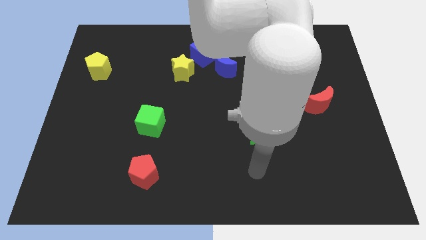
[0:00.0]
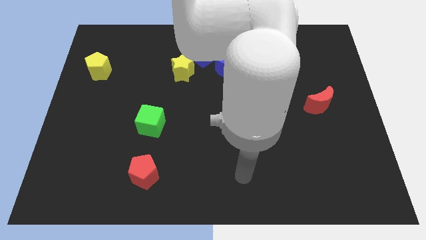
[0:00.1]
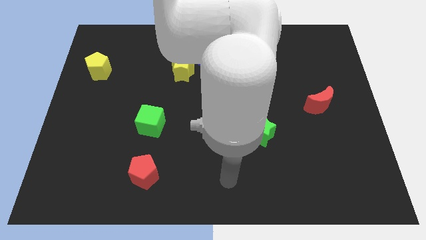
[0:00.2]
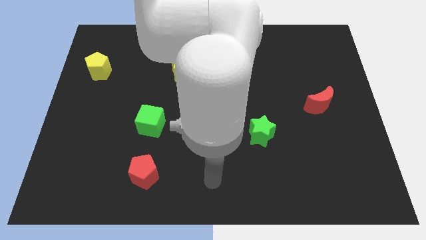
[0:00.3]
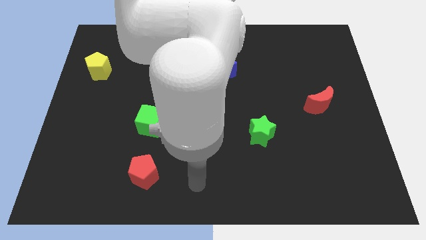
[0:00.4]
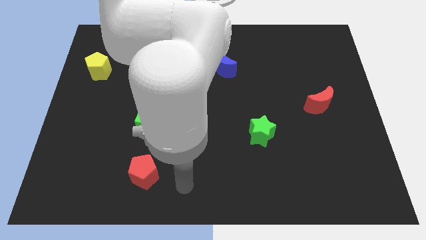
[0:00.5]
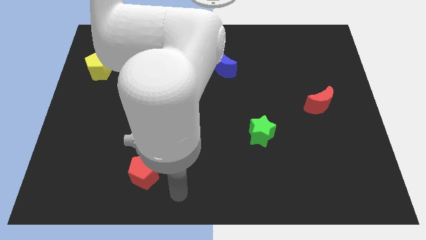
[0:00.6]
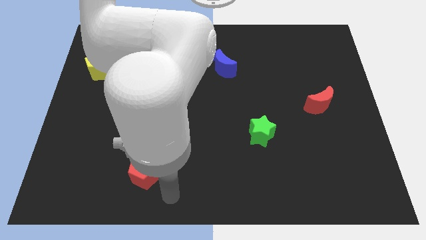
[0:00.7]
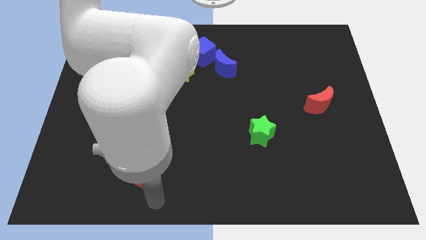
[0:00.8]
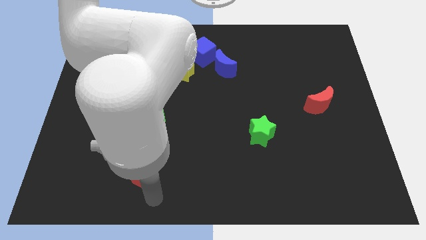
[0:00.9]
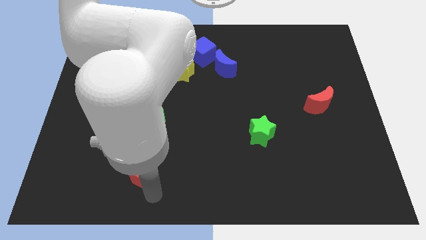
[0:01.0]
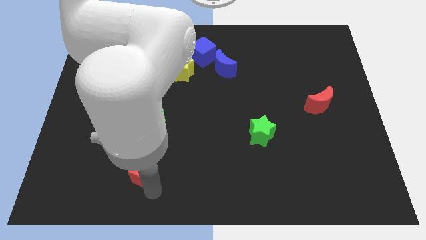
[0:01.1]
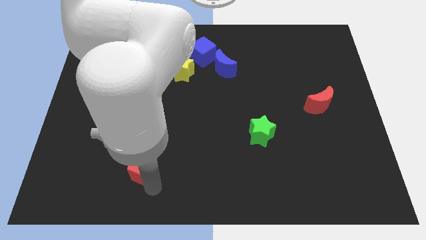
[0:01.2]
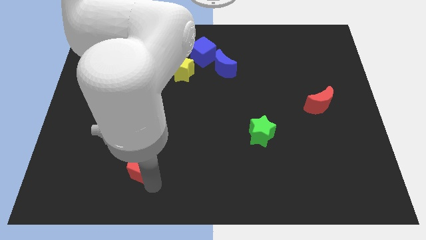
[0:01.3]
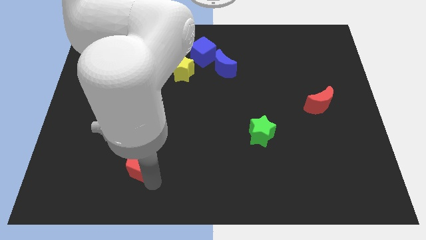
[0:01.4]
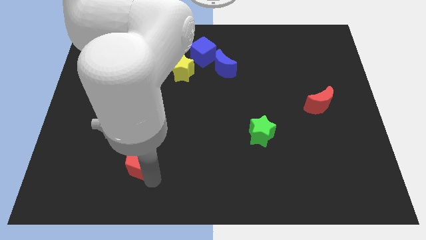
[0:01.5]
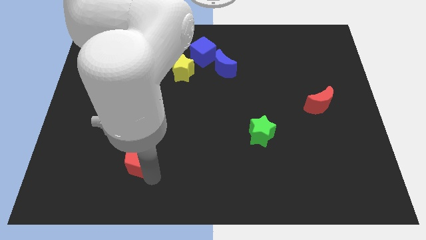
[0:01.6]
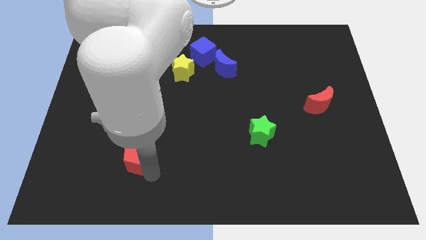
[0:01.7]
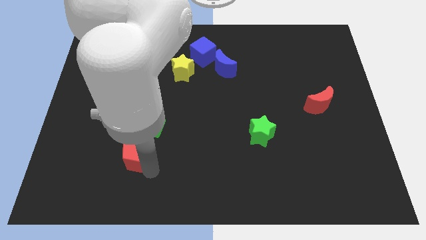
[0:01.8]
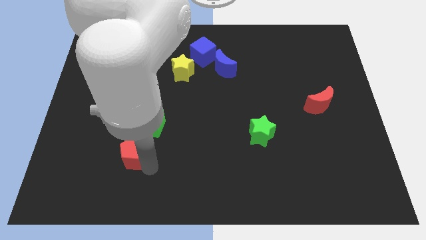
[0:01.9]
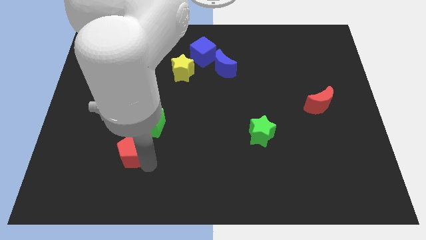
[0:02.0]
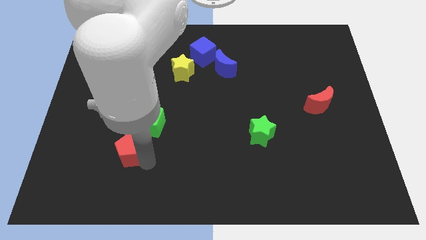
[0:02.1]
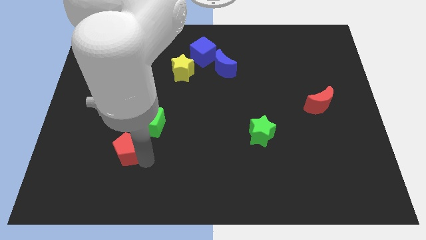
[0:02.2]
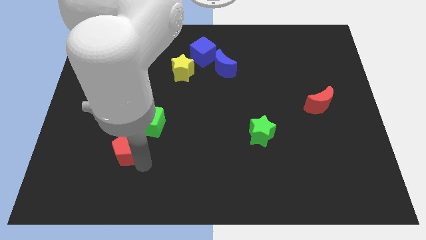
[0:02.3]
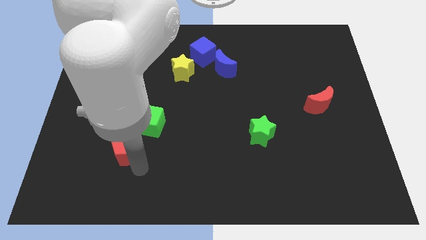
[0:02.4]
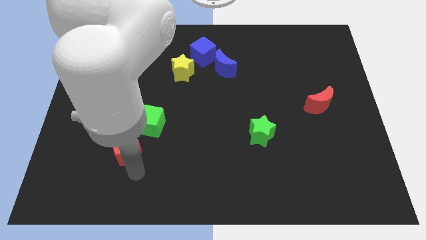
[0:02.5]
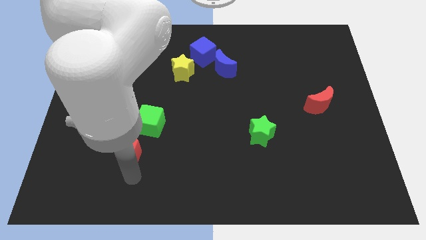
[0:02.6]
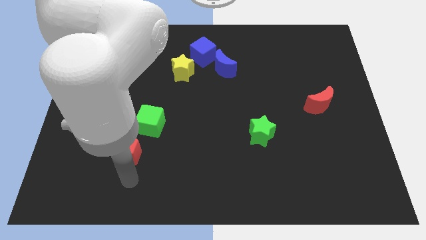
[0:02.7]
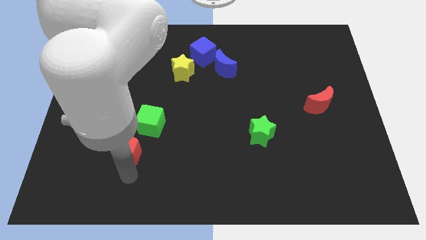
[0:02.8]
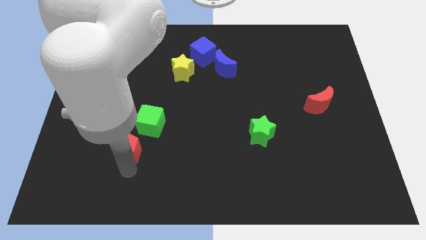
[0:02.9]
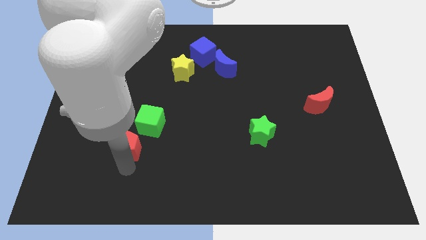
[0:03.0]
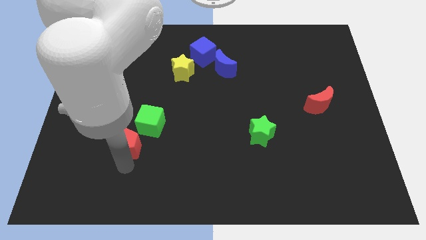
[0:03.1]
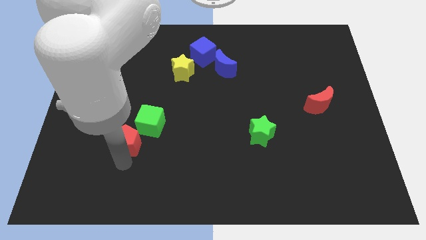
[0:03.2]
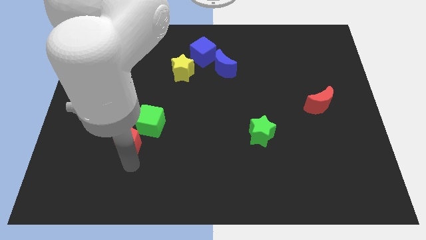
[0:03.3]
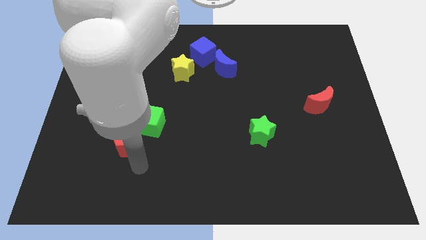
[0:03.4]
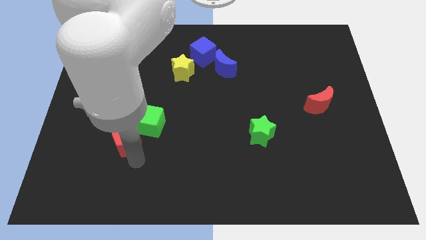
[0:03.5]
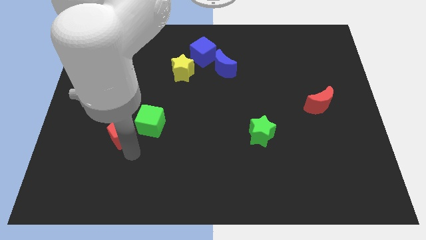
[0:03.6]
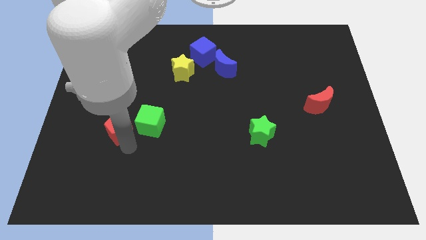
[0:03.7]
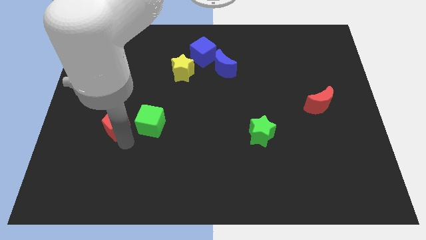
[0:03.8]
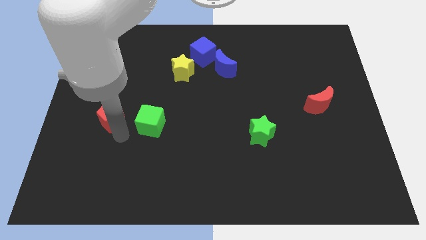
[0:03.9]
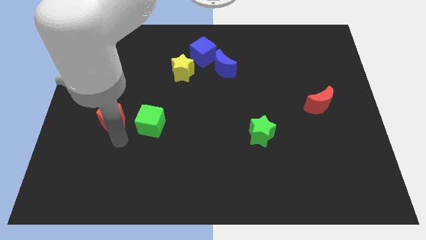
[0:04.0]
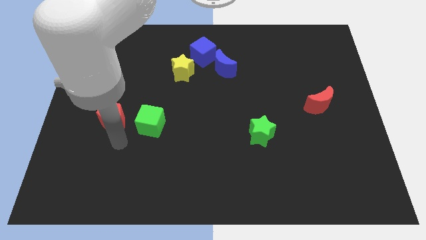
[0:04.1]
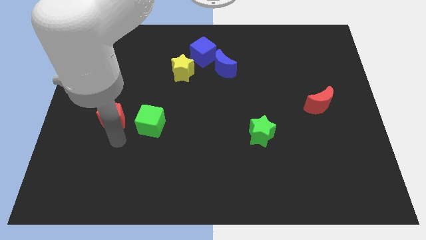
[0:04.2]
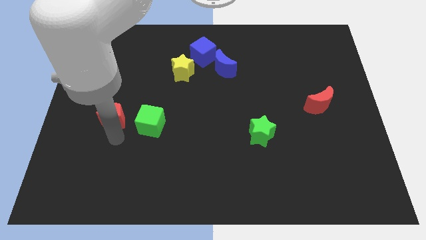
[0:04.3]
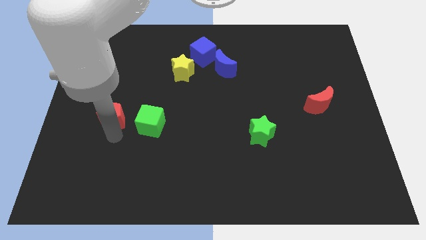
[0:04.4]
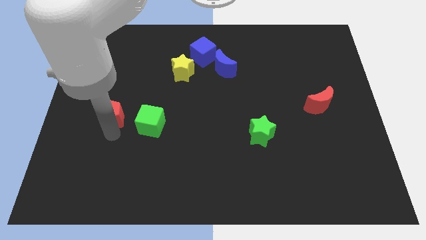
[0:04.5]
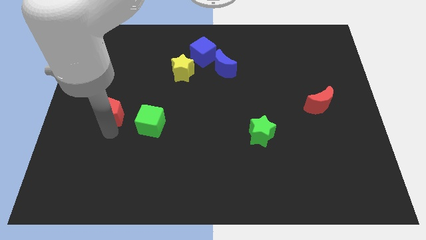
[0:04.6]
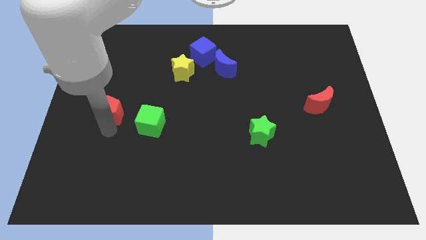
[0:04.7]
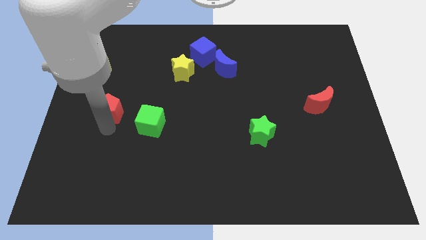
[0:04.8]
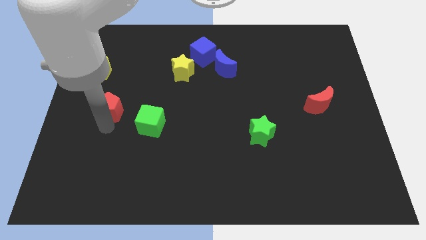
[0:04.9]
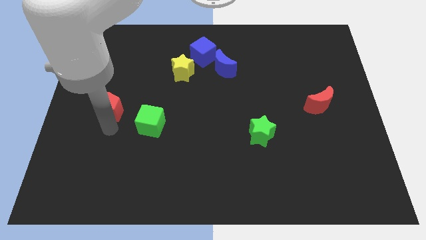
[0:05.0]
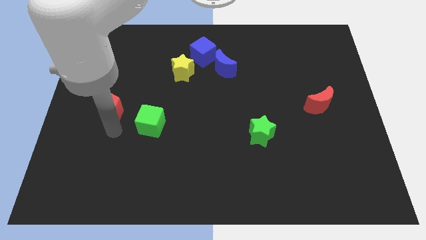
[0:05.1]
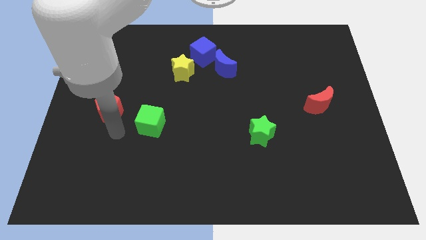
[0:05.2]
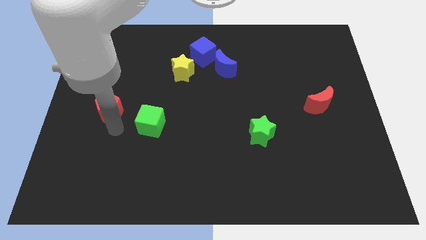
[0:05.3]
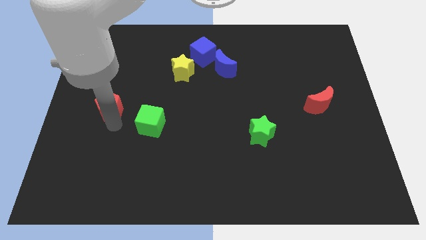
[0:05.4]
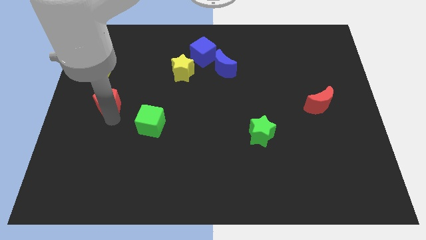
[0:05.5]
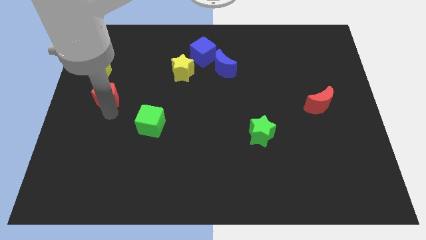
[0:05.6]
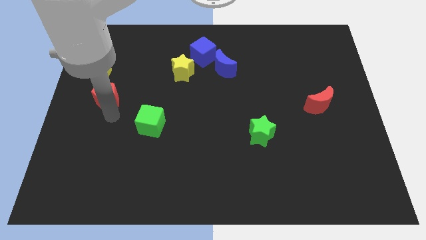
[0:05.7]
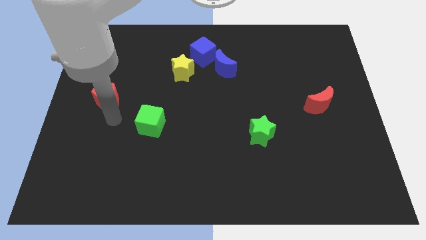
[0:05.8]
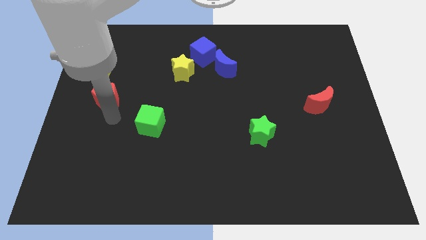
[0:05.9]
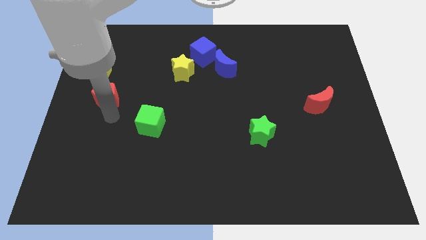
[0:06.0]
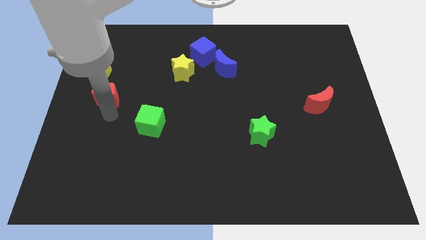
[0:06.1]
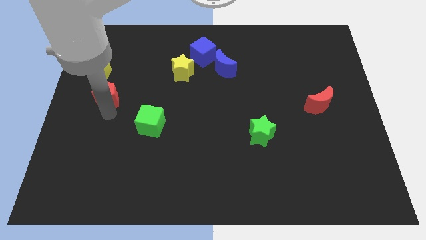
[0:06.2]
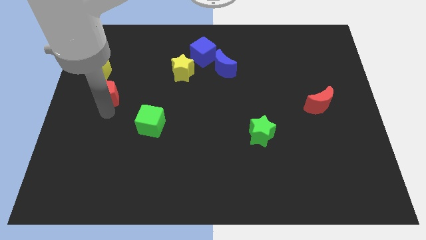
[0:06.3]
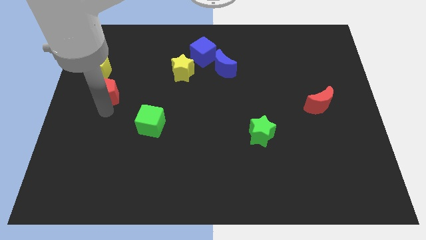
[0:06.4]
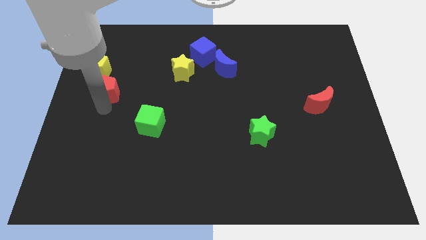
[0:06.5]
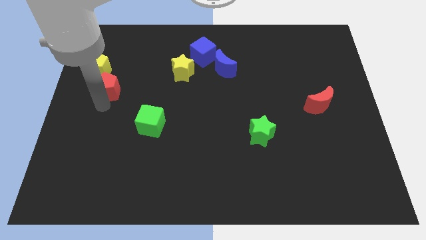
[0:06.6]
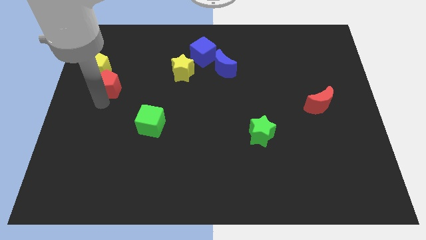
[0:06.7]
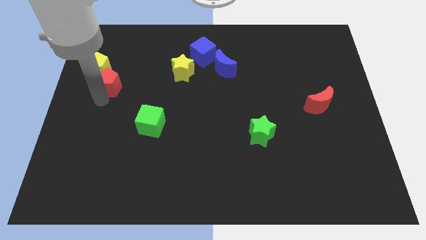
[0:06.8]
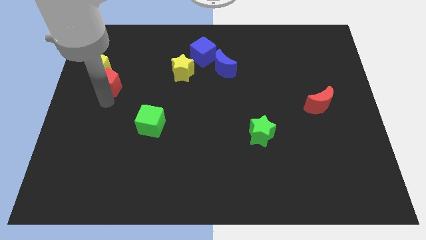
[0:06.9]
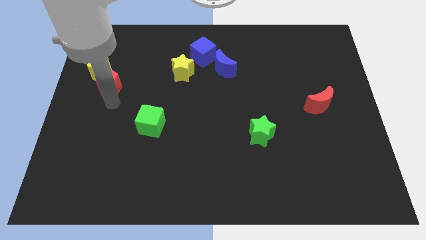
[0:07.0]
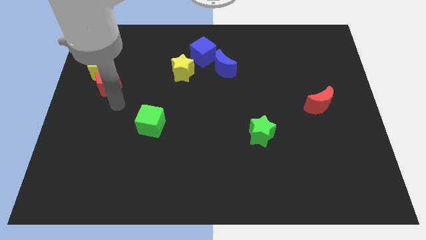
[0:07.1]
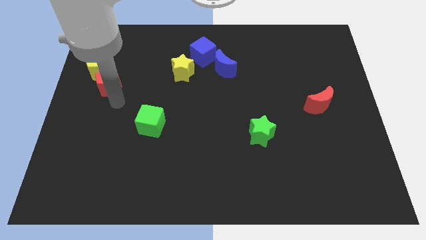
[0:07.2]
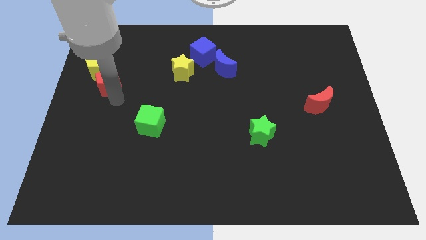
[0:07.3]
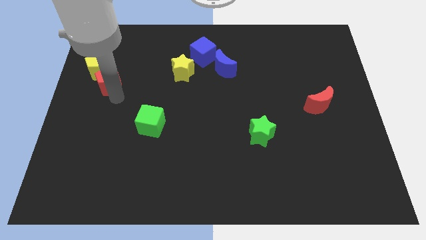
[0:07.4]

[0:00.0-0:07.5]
move the red pentagon to the yellow pentagon
